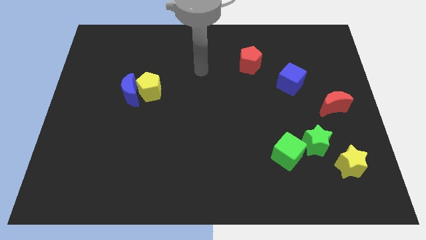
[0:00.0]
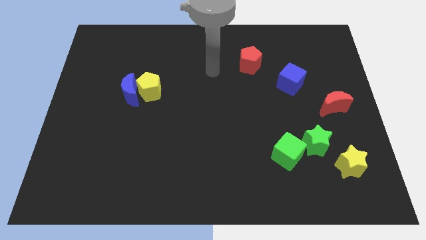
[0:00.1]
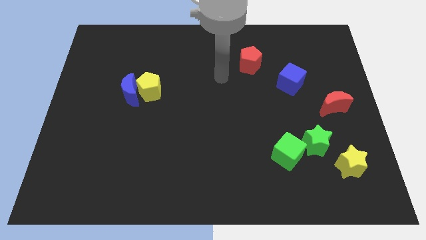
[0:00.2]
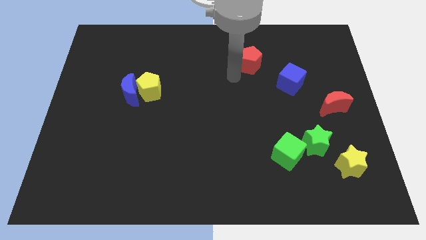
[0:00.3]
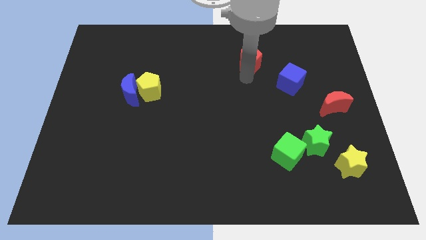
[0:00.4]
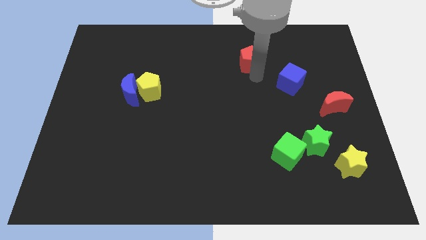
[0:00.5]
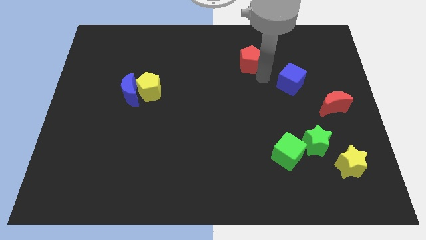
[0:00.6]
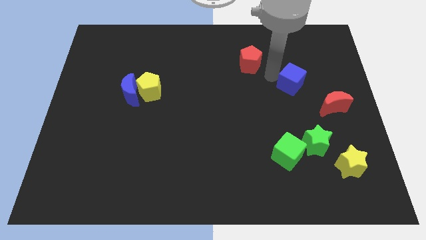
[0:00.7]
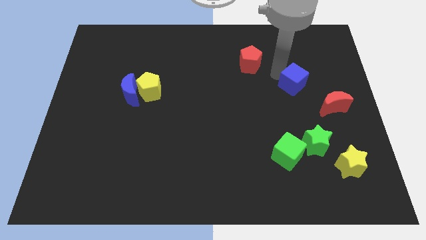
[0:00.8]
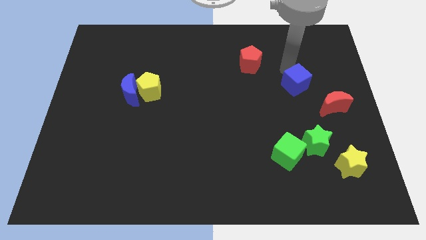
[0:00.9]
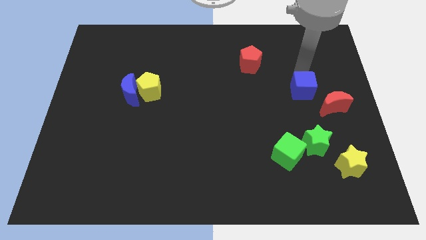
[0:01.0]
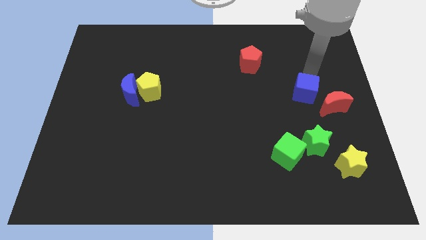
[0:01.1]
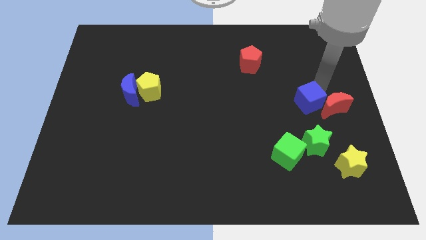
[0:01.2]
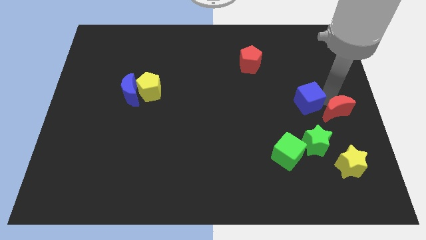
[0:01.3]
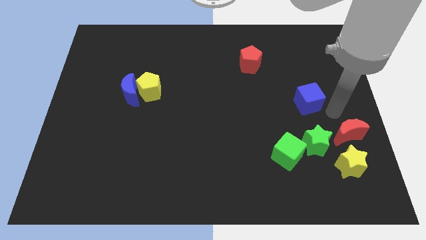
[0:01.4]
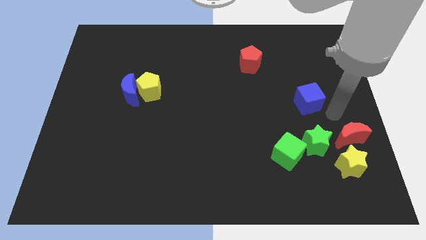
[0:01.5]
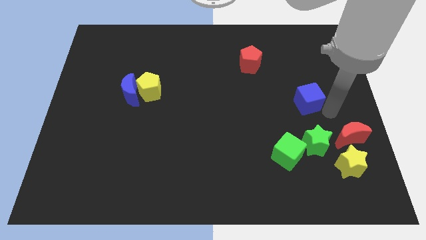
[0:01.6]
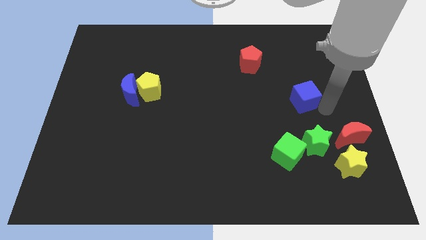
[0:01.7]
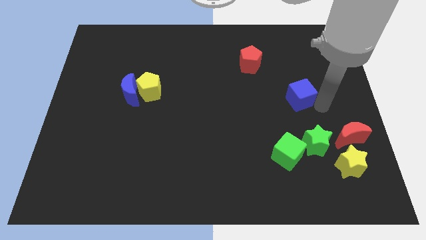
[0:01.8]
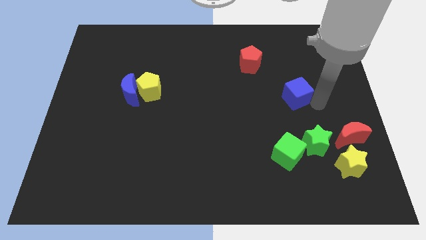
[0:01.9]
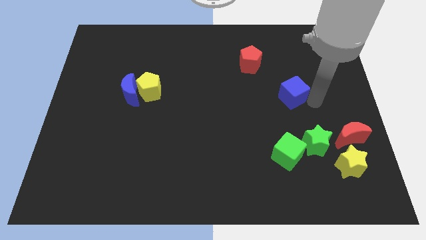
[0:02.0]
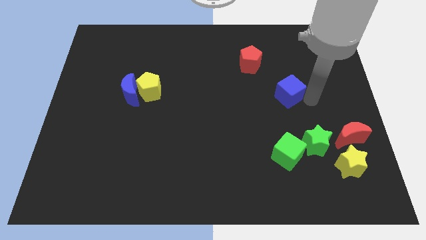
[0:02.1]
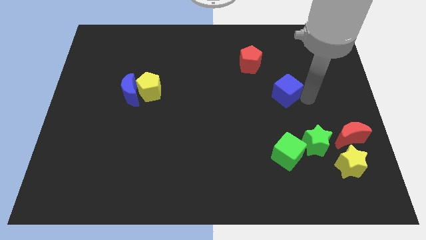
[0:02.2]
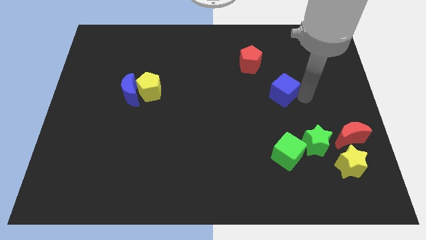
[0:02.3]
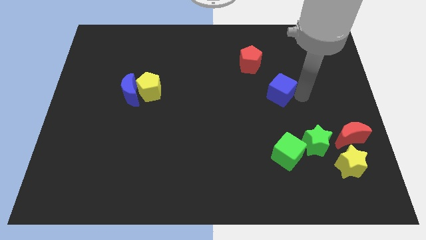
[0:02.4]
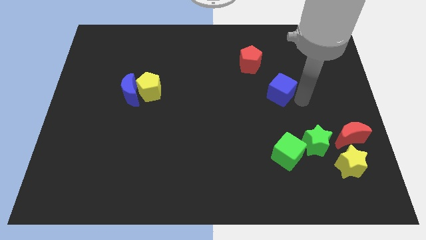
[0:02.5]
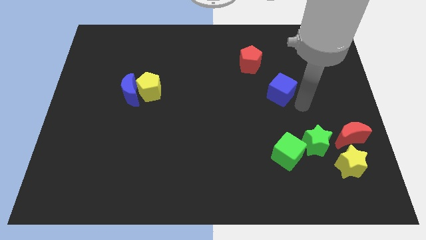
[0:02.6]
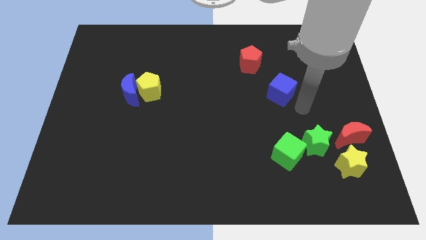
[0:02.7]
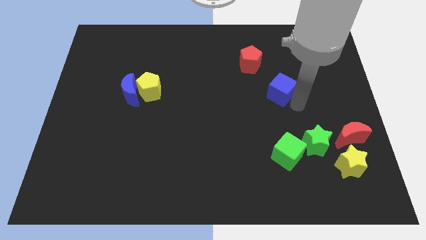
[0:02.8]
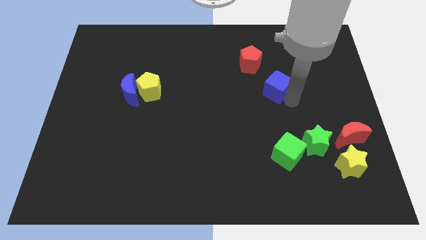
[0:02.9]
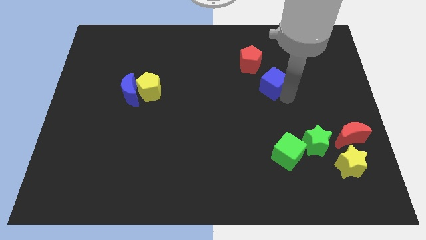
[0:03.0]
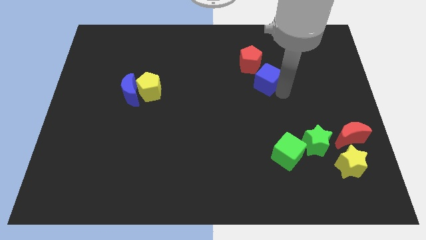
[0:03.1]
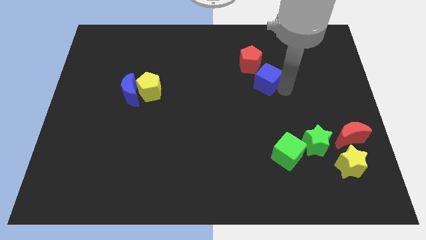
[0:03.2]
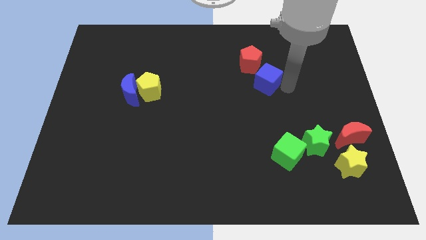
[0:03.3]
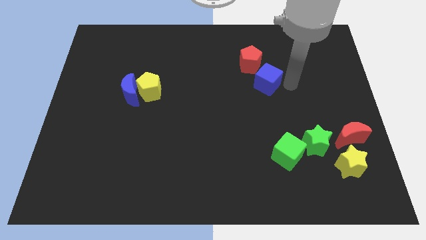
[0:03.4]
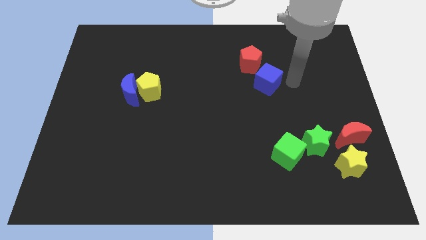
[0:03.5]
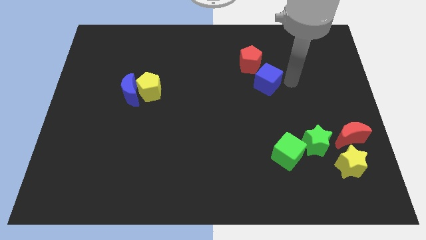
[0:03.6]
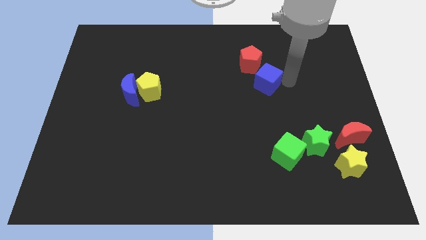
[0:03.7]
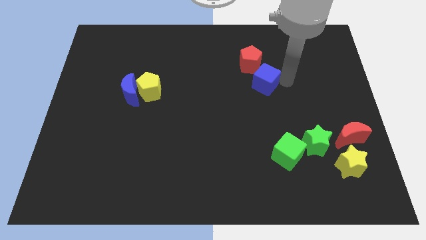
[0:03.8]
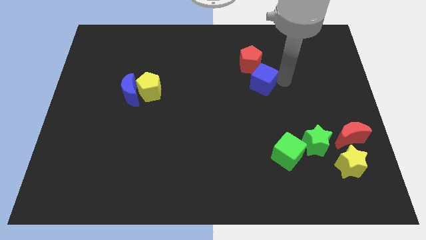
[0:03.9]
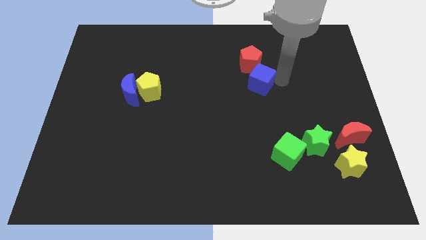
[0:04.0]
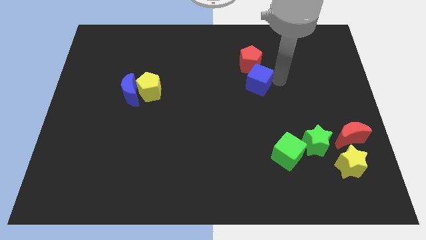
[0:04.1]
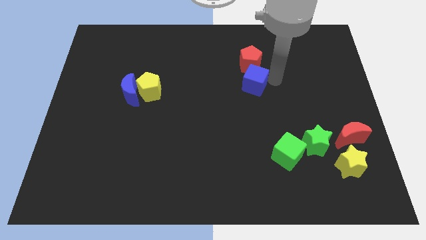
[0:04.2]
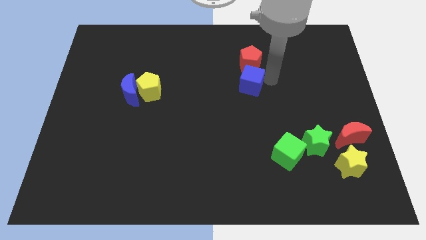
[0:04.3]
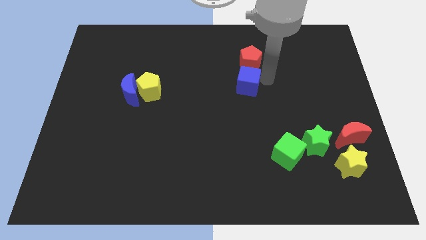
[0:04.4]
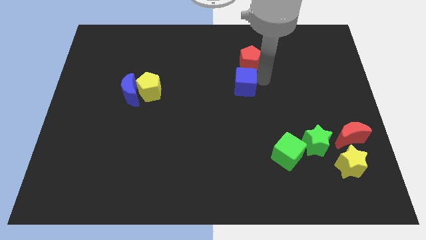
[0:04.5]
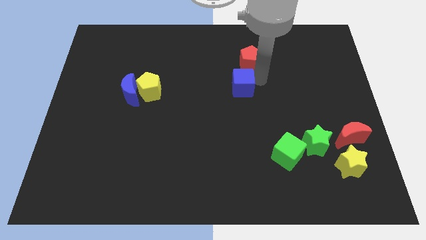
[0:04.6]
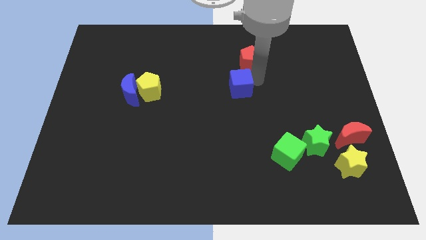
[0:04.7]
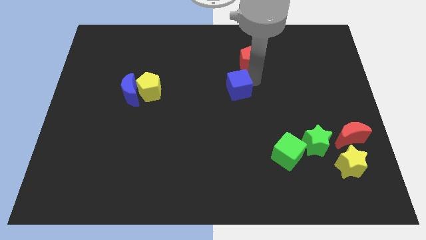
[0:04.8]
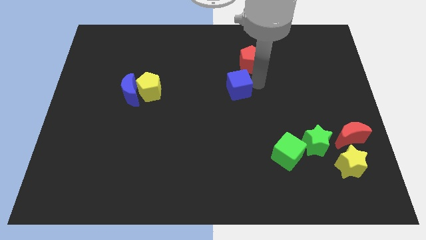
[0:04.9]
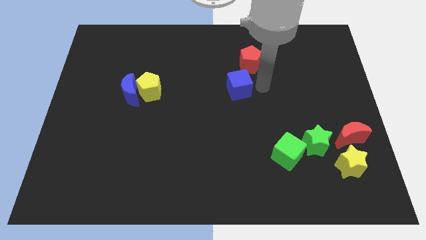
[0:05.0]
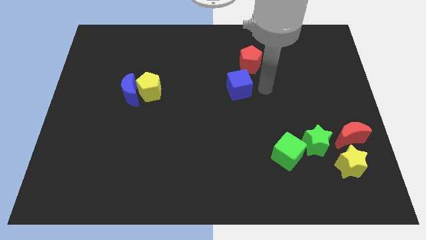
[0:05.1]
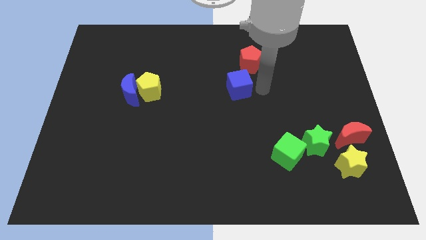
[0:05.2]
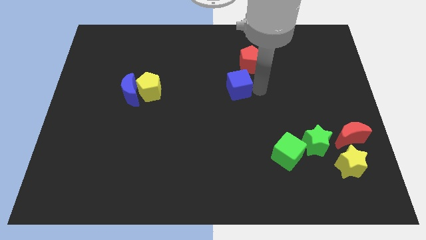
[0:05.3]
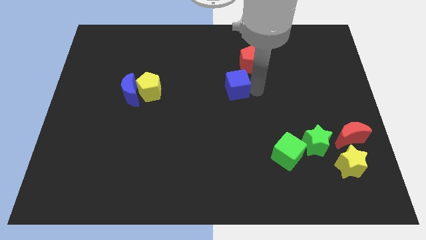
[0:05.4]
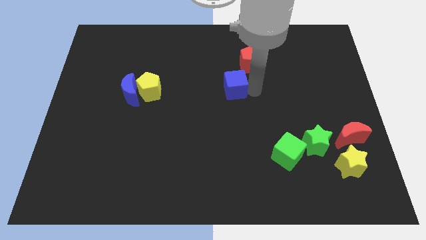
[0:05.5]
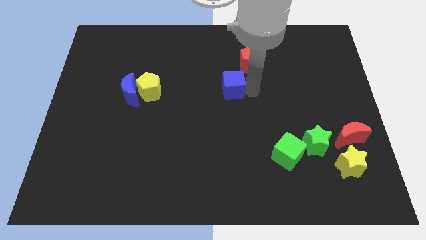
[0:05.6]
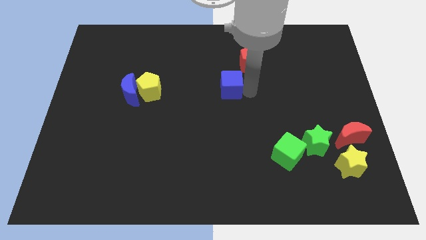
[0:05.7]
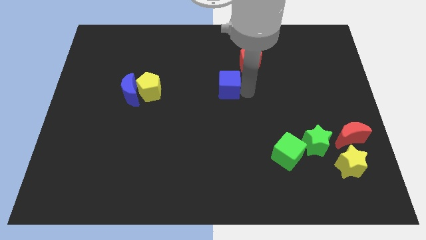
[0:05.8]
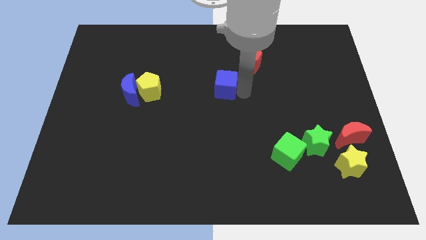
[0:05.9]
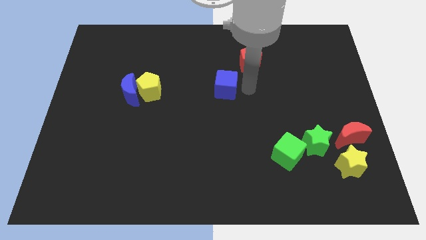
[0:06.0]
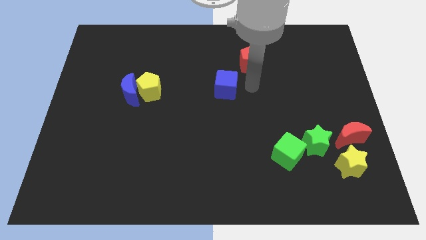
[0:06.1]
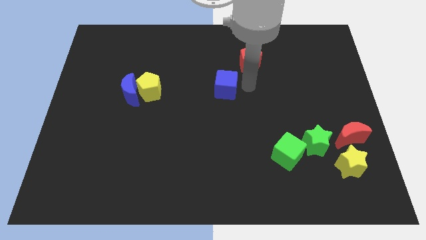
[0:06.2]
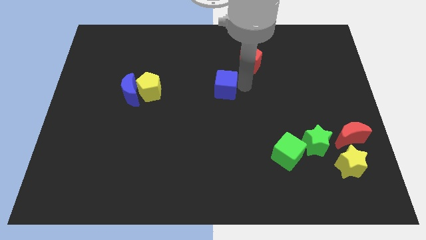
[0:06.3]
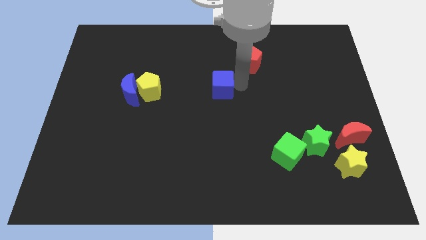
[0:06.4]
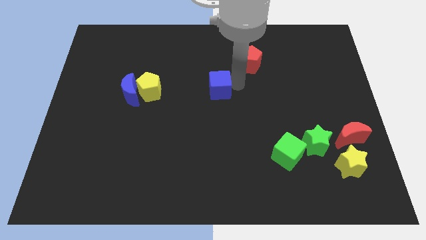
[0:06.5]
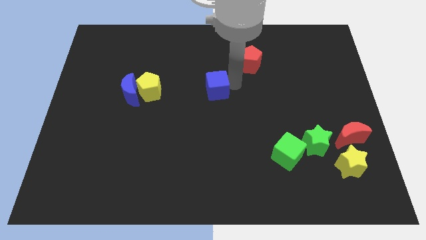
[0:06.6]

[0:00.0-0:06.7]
put the blue cube to the right of the yellow pentagon
